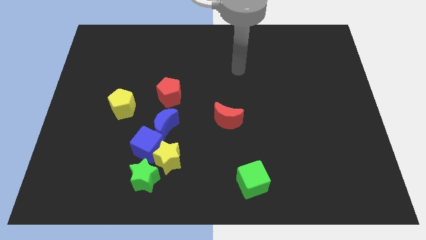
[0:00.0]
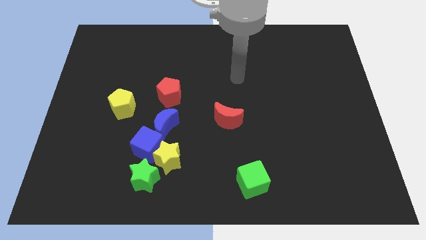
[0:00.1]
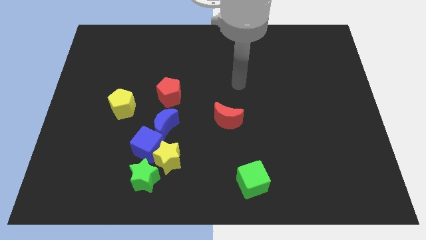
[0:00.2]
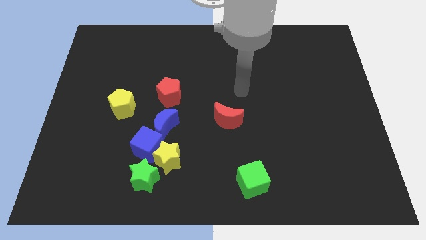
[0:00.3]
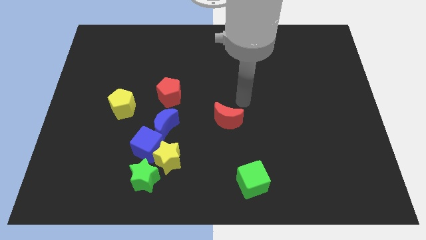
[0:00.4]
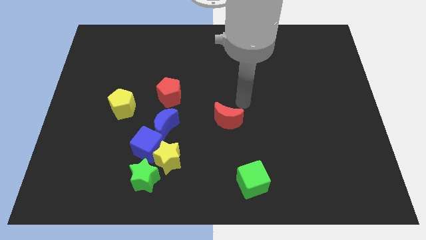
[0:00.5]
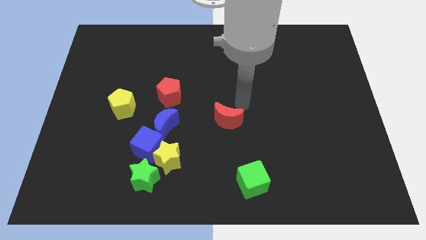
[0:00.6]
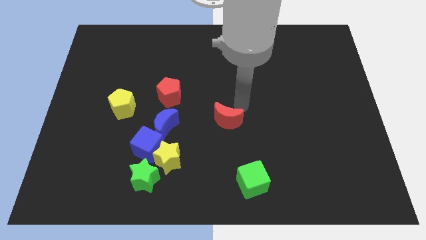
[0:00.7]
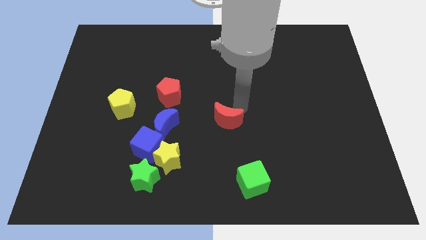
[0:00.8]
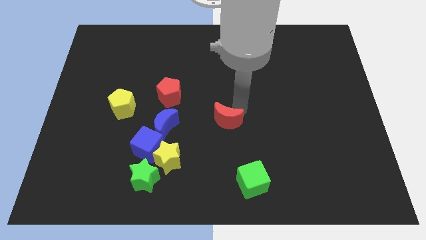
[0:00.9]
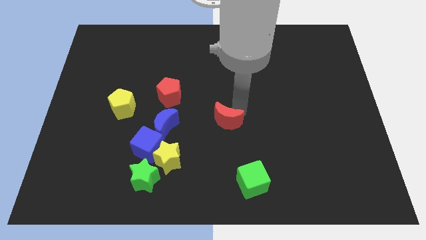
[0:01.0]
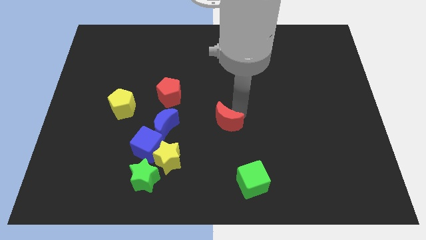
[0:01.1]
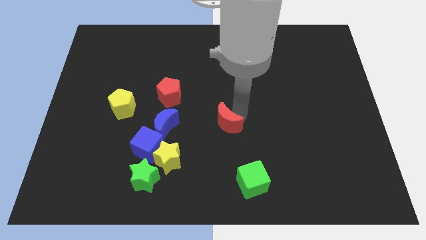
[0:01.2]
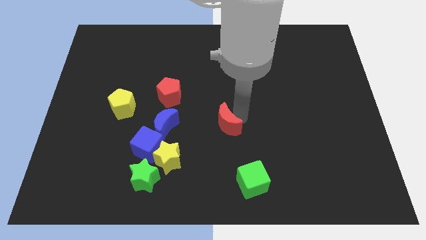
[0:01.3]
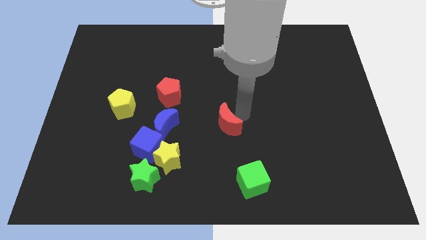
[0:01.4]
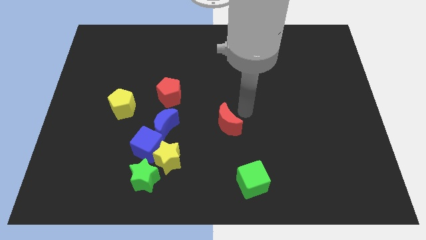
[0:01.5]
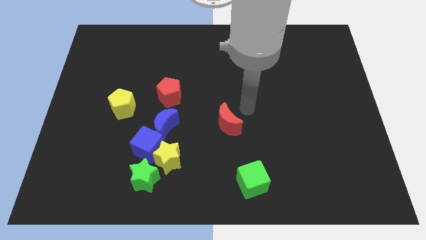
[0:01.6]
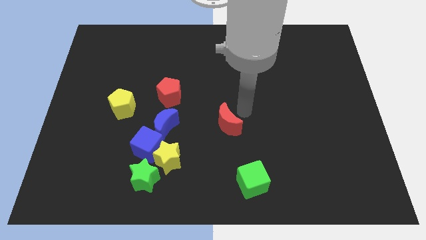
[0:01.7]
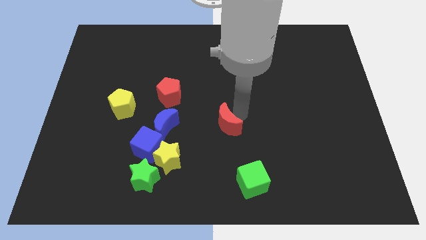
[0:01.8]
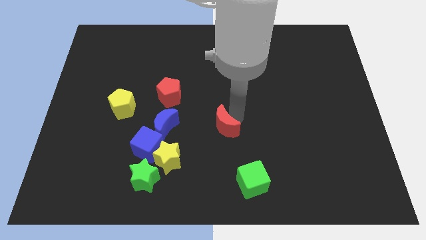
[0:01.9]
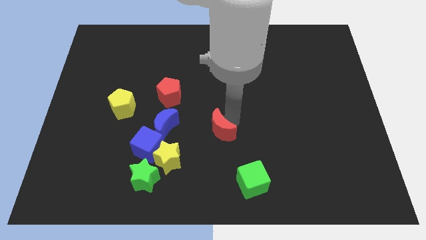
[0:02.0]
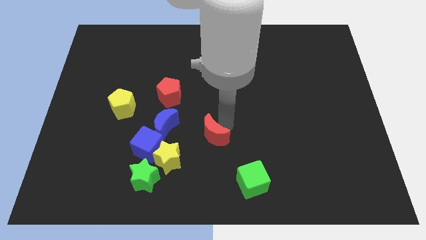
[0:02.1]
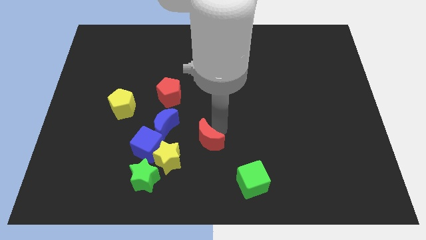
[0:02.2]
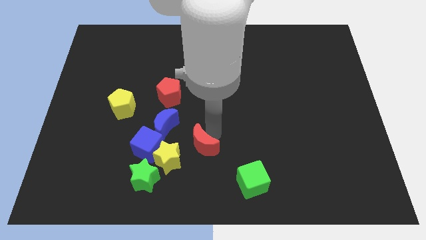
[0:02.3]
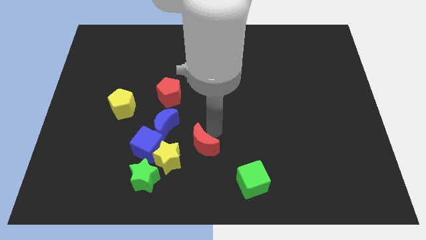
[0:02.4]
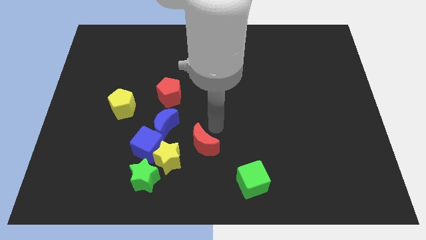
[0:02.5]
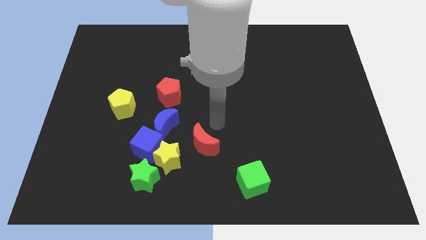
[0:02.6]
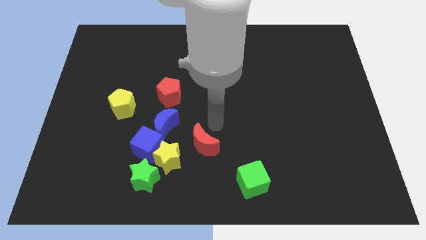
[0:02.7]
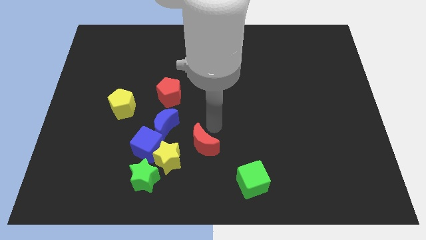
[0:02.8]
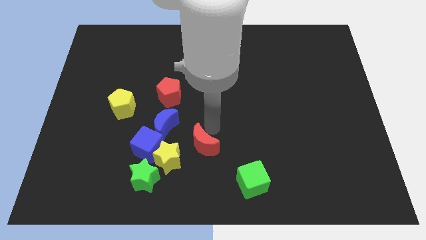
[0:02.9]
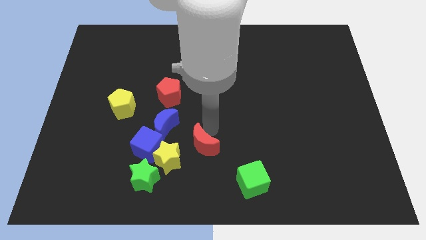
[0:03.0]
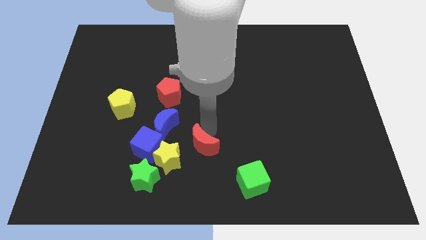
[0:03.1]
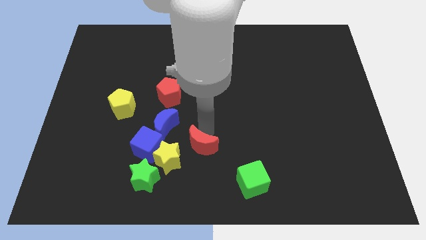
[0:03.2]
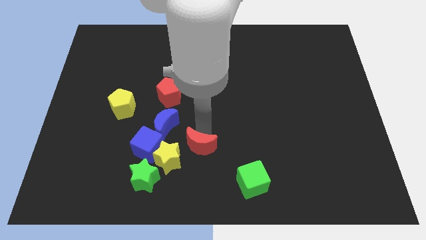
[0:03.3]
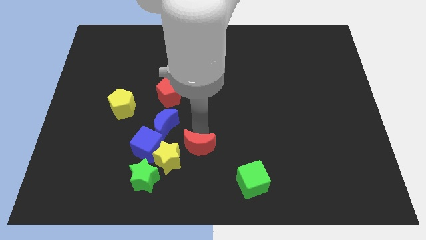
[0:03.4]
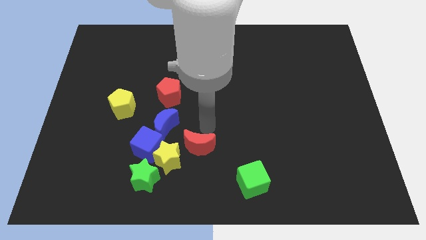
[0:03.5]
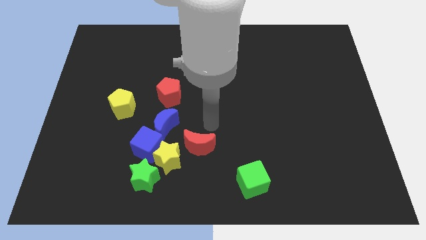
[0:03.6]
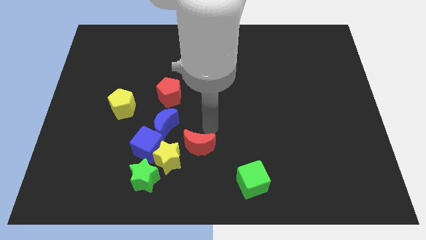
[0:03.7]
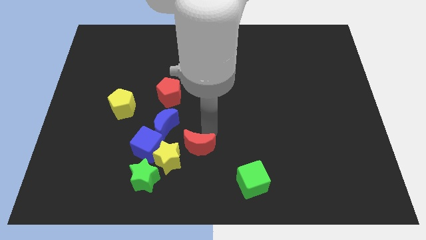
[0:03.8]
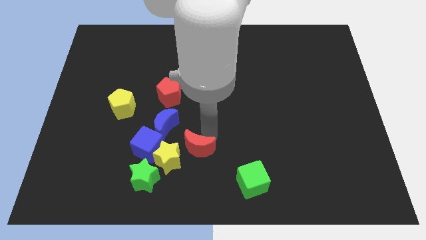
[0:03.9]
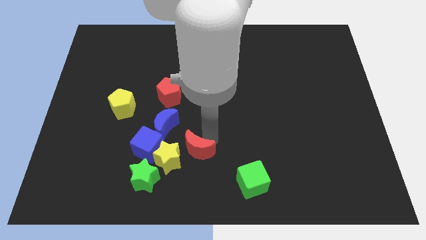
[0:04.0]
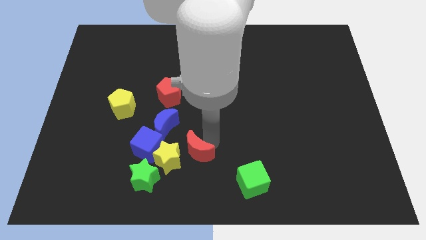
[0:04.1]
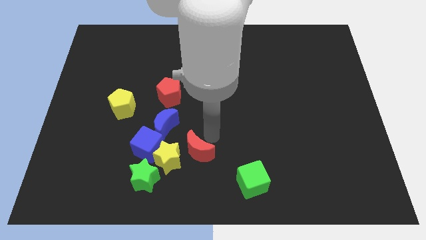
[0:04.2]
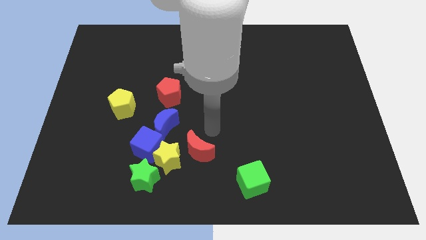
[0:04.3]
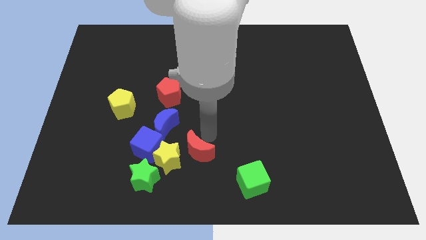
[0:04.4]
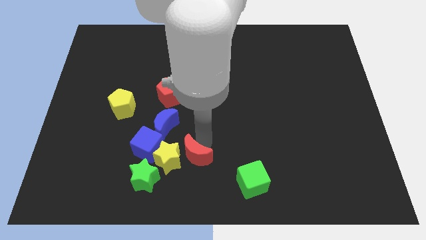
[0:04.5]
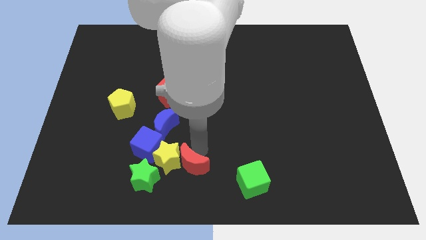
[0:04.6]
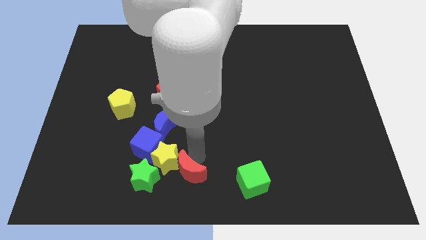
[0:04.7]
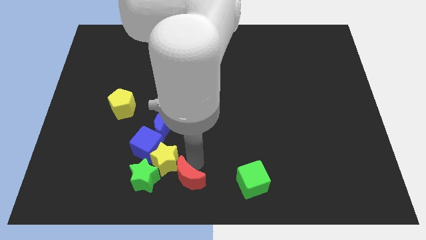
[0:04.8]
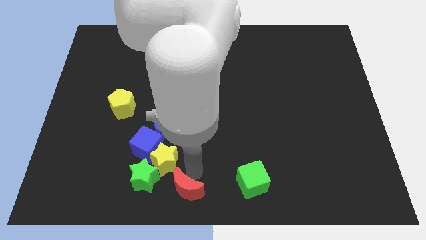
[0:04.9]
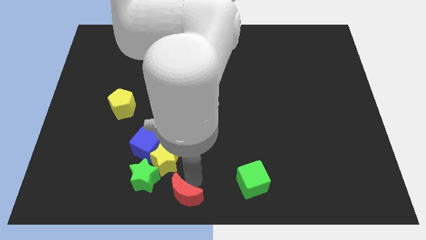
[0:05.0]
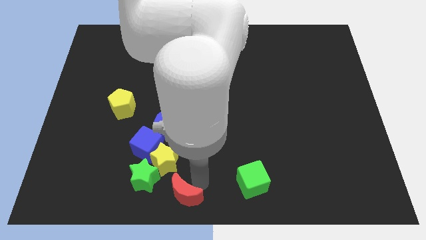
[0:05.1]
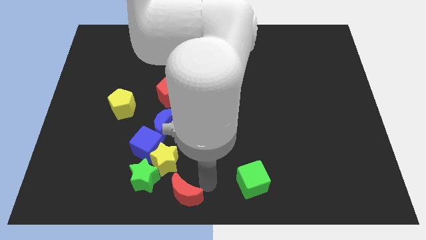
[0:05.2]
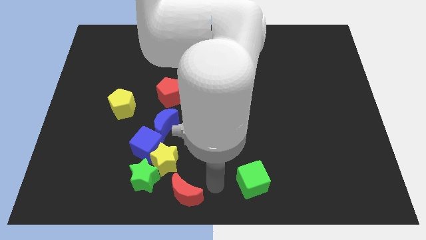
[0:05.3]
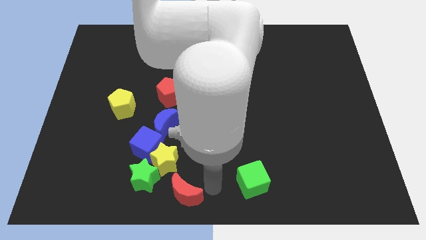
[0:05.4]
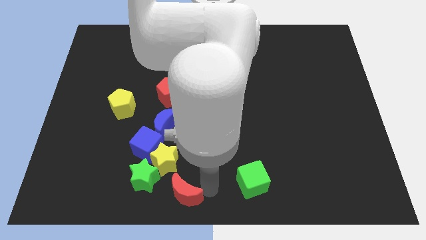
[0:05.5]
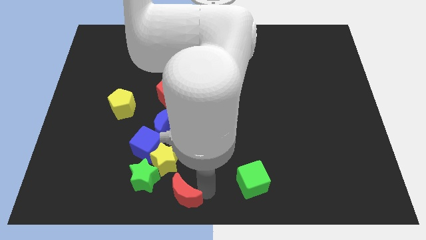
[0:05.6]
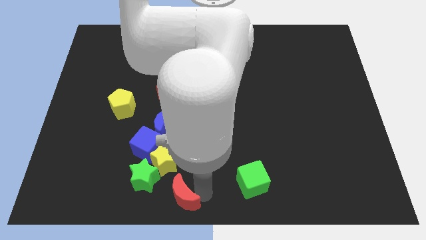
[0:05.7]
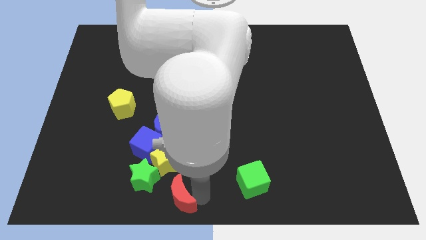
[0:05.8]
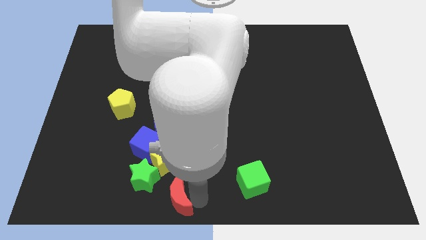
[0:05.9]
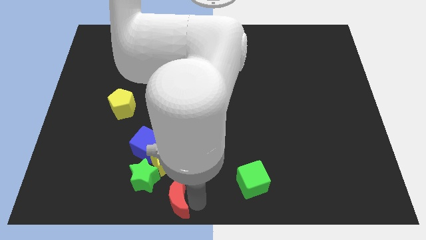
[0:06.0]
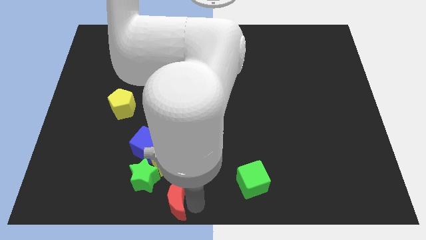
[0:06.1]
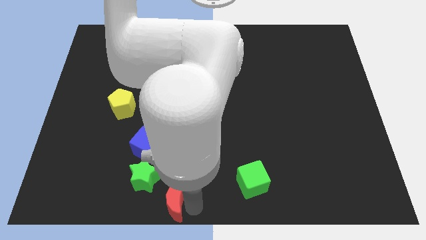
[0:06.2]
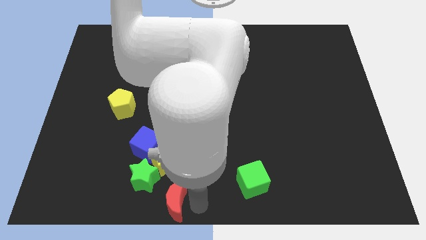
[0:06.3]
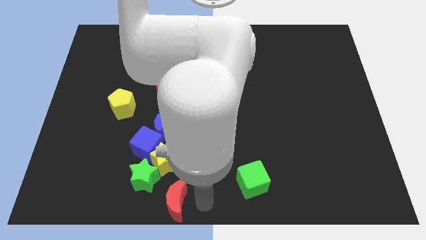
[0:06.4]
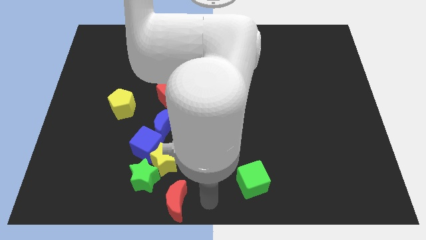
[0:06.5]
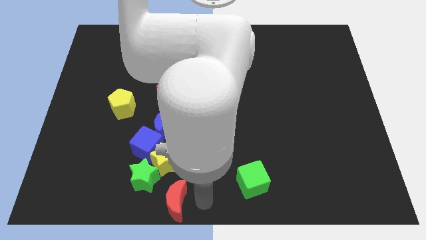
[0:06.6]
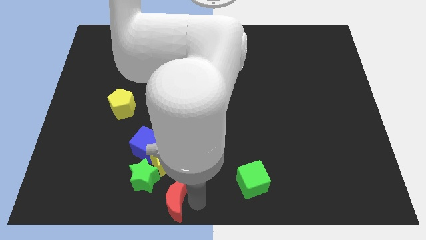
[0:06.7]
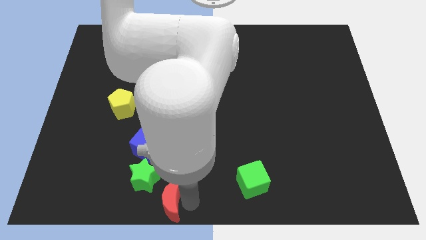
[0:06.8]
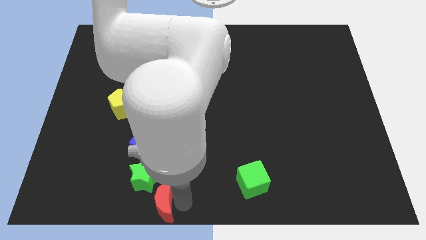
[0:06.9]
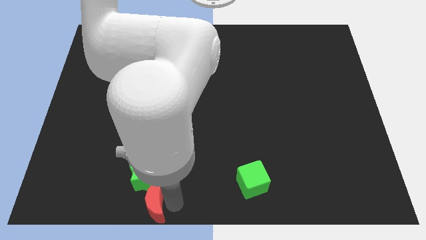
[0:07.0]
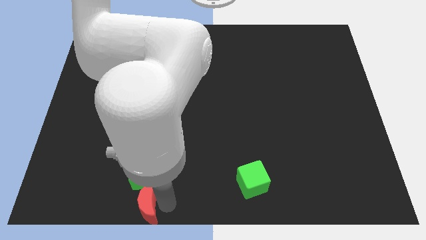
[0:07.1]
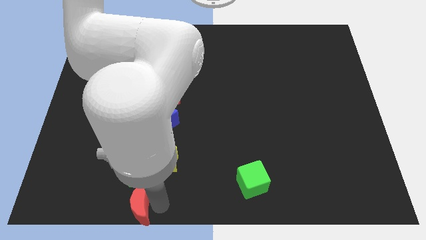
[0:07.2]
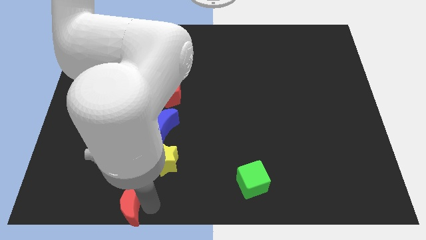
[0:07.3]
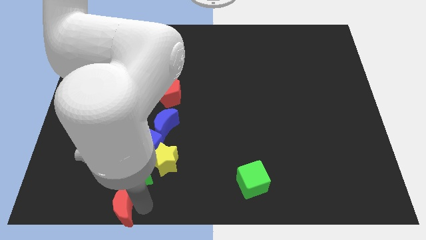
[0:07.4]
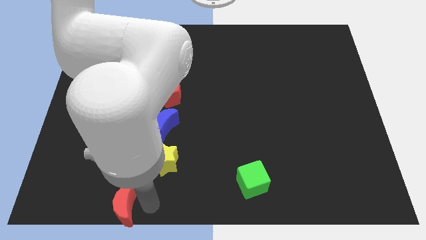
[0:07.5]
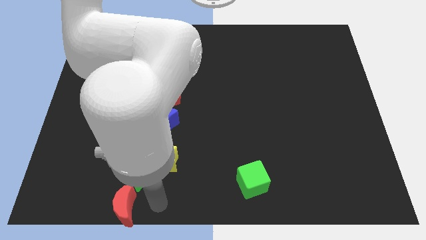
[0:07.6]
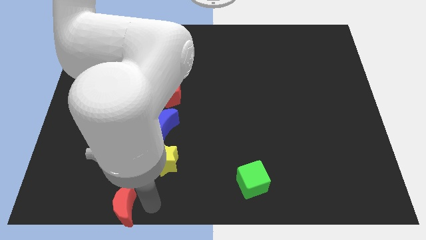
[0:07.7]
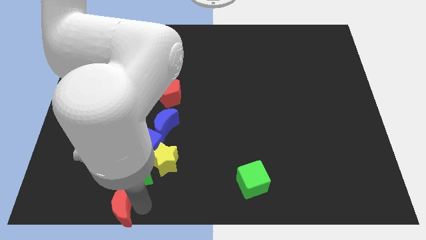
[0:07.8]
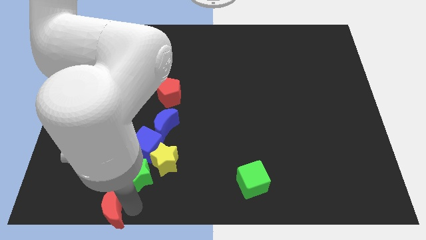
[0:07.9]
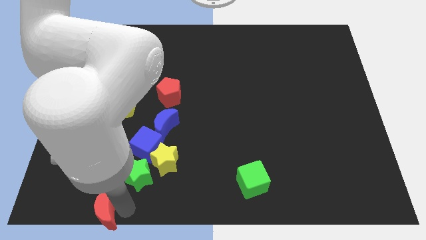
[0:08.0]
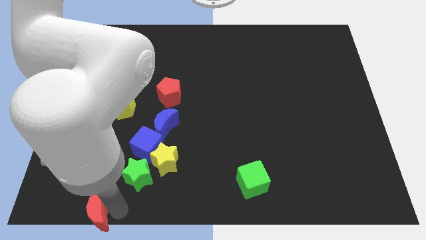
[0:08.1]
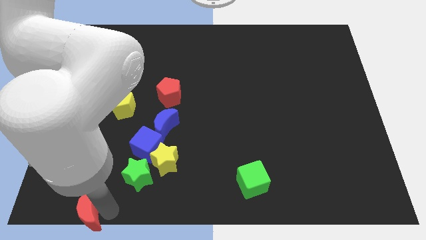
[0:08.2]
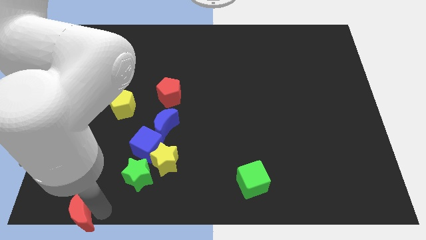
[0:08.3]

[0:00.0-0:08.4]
put the red moon to the bottom left
